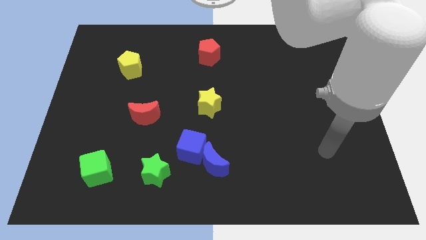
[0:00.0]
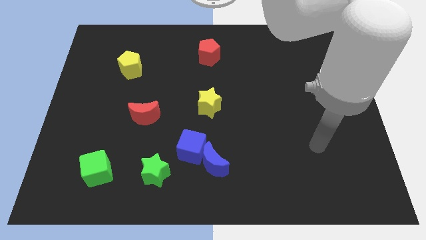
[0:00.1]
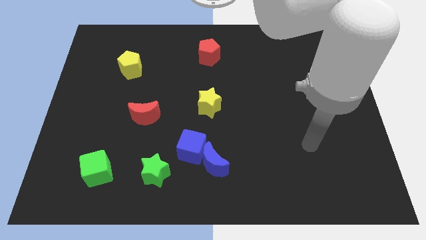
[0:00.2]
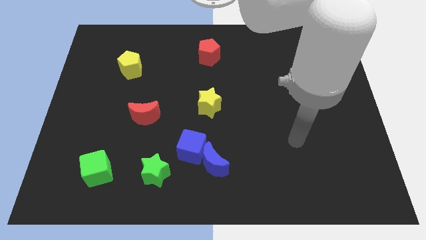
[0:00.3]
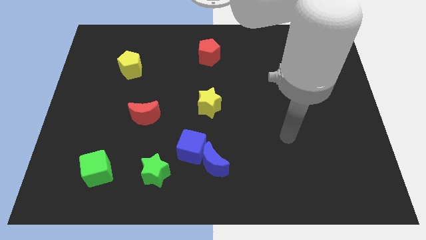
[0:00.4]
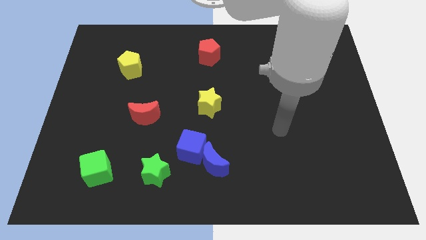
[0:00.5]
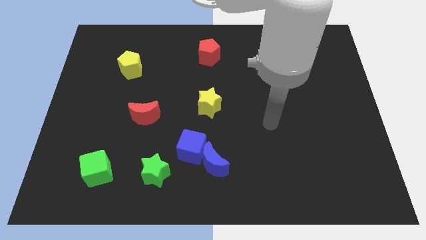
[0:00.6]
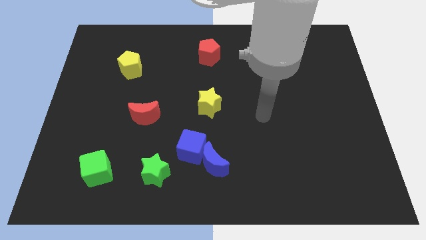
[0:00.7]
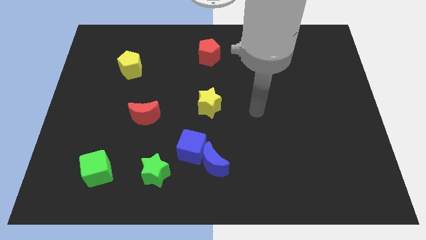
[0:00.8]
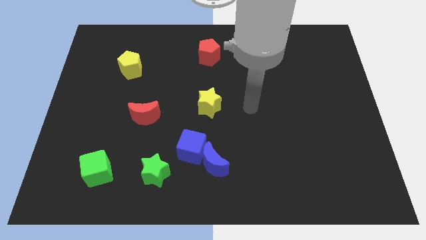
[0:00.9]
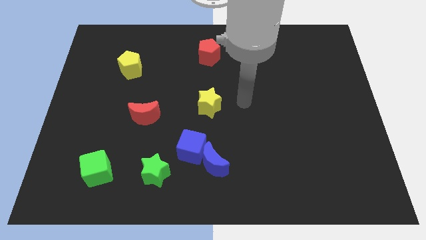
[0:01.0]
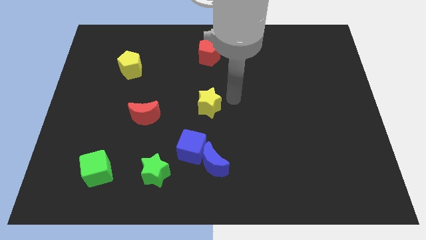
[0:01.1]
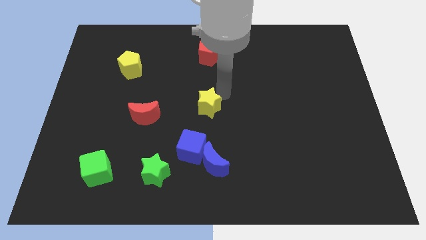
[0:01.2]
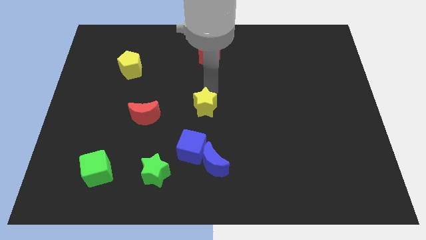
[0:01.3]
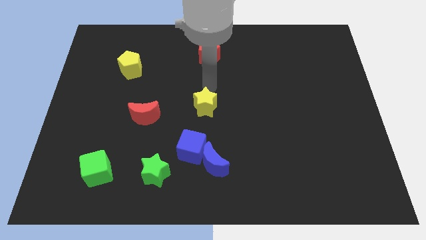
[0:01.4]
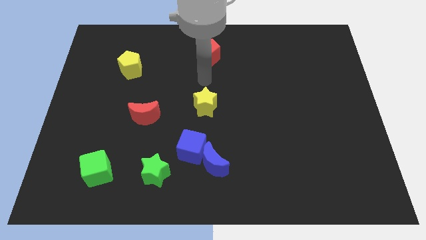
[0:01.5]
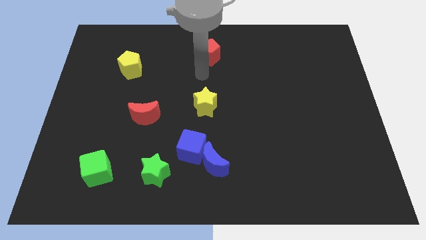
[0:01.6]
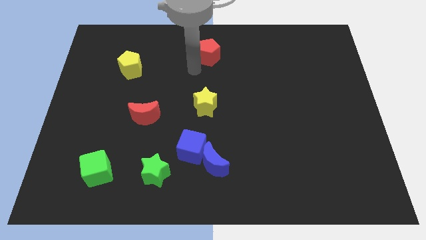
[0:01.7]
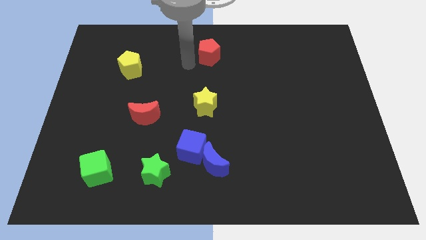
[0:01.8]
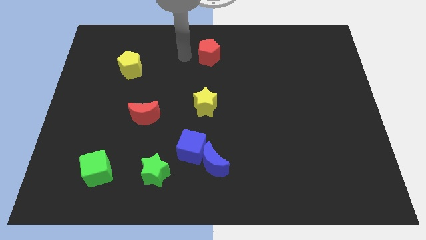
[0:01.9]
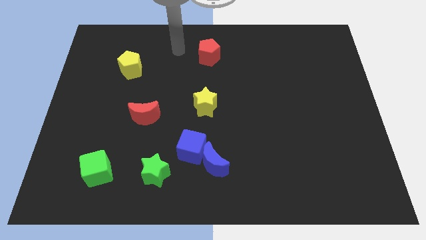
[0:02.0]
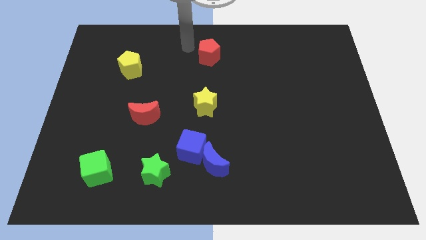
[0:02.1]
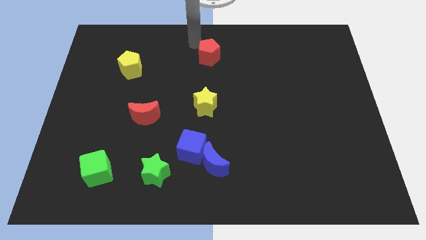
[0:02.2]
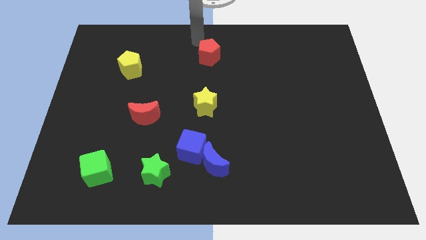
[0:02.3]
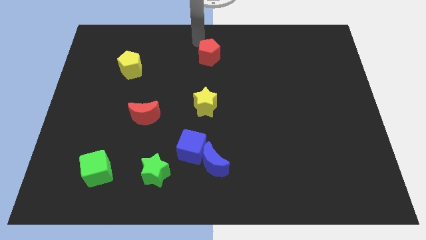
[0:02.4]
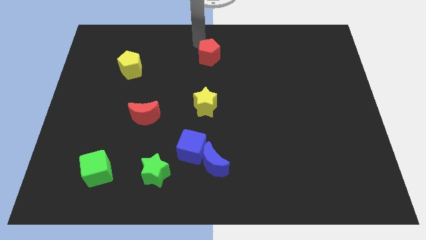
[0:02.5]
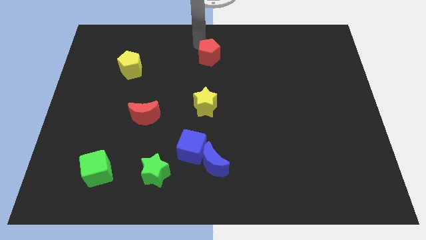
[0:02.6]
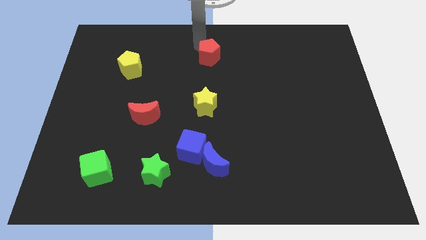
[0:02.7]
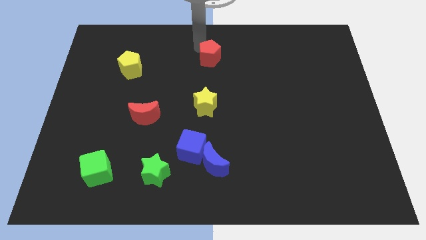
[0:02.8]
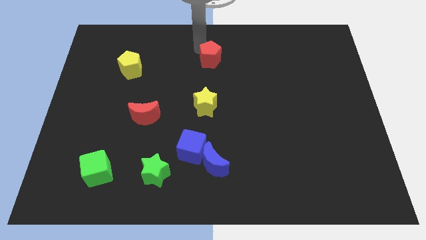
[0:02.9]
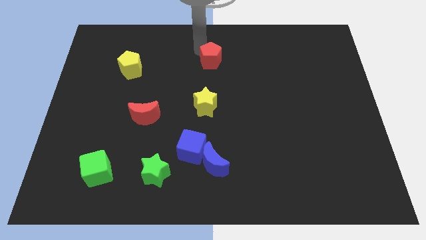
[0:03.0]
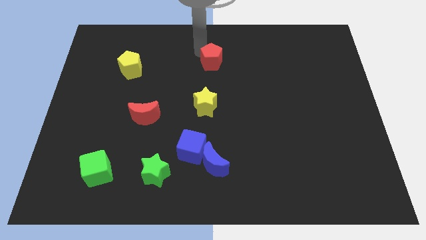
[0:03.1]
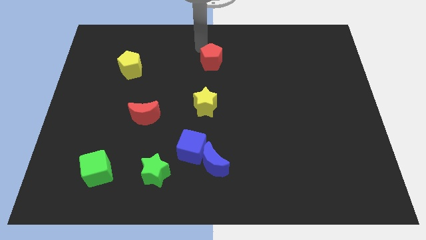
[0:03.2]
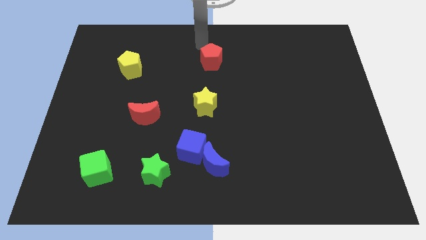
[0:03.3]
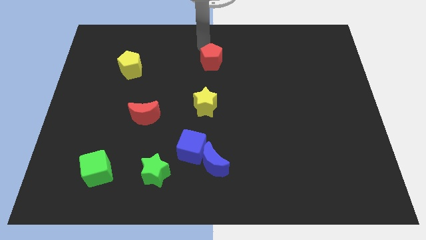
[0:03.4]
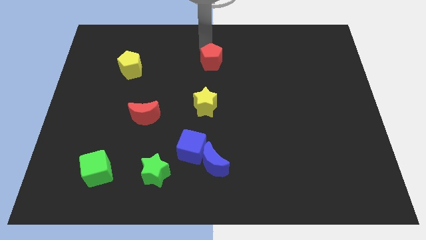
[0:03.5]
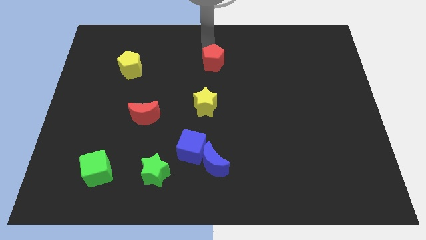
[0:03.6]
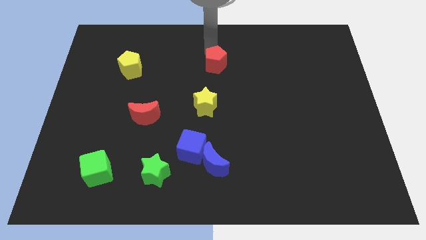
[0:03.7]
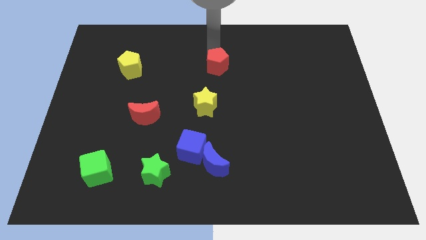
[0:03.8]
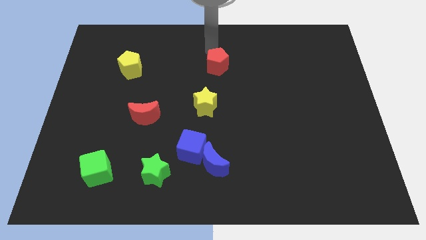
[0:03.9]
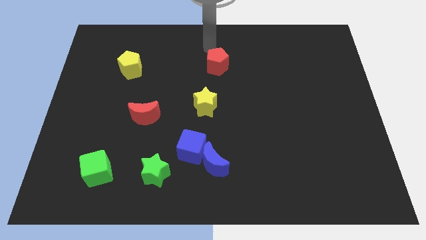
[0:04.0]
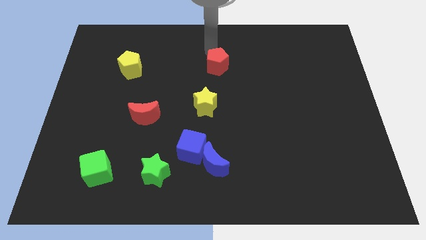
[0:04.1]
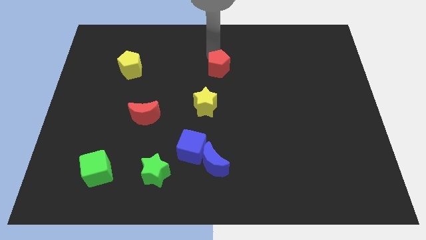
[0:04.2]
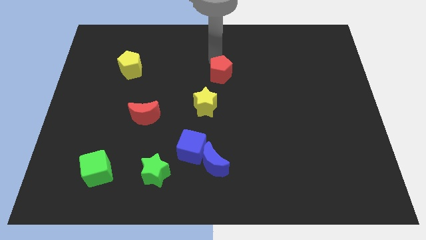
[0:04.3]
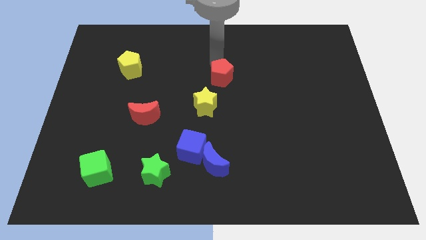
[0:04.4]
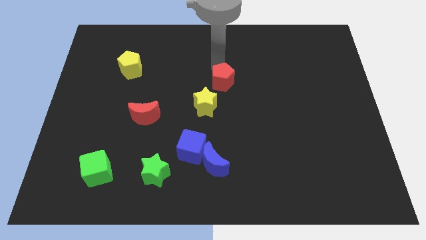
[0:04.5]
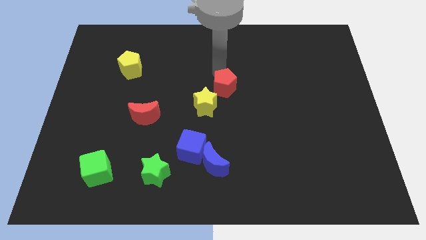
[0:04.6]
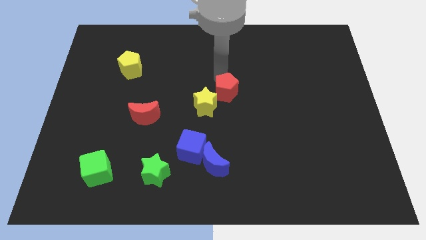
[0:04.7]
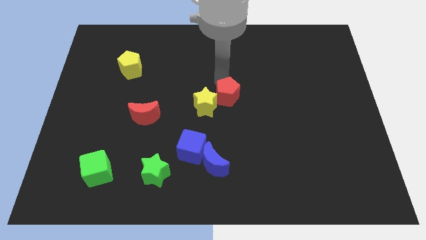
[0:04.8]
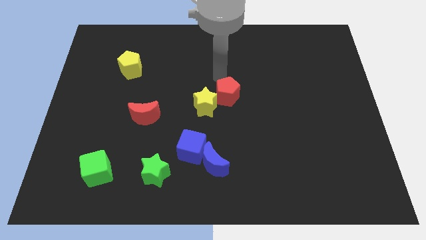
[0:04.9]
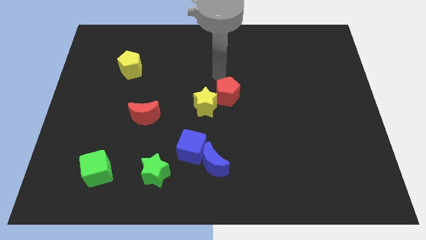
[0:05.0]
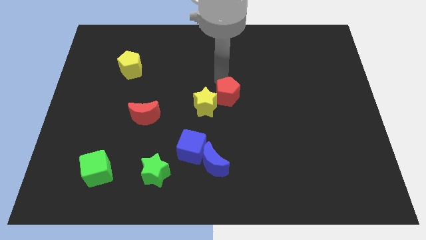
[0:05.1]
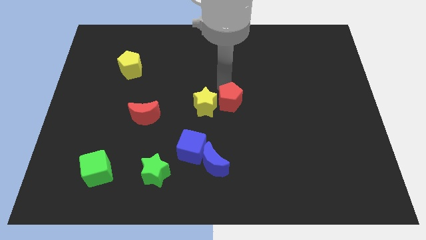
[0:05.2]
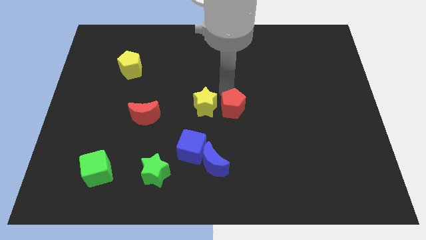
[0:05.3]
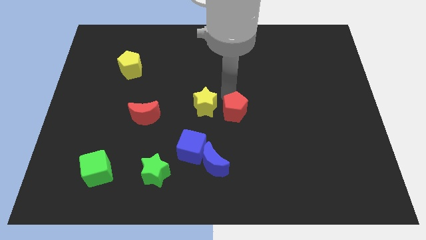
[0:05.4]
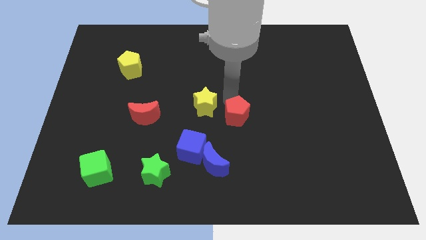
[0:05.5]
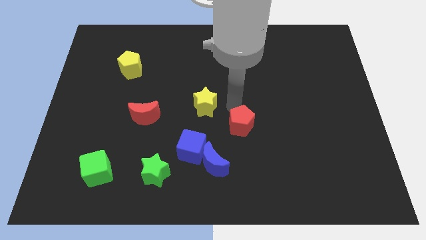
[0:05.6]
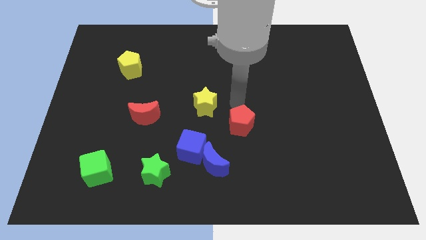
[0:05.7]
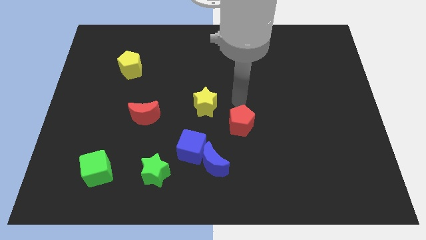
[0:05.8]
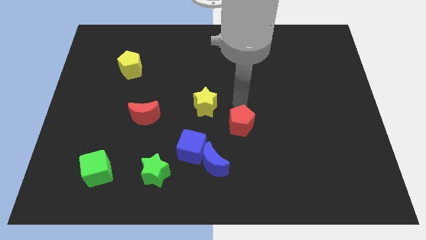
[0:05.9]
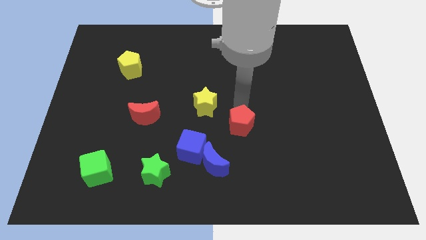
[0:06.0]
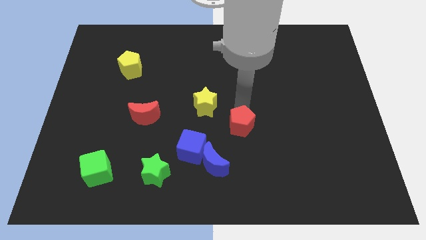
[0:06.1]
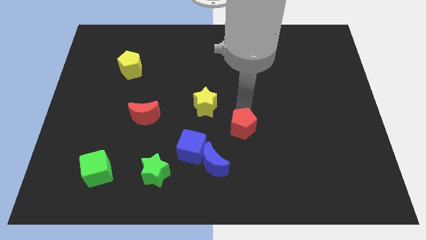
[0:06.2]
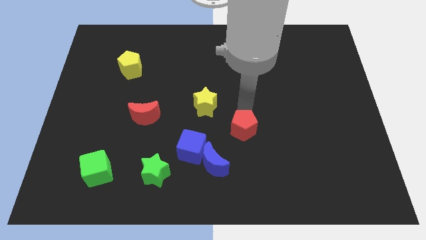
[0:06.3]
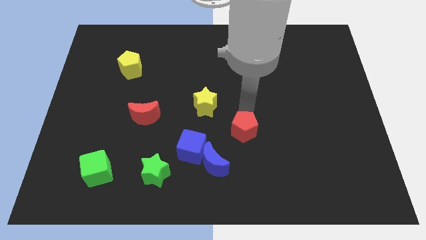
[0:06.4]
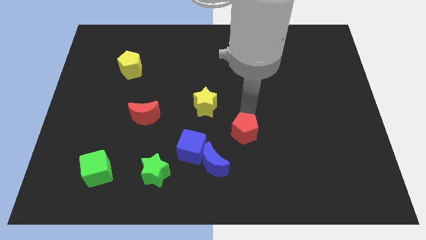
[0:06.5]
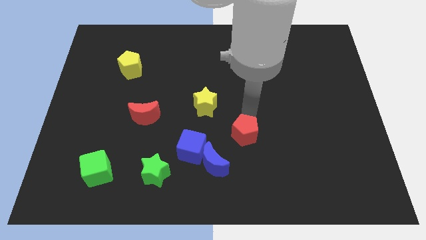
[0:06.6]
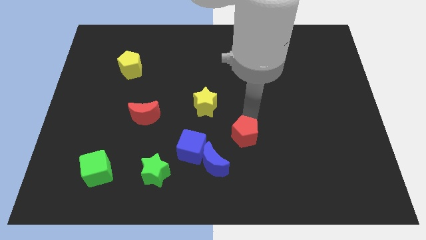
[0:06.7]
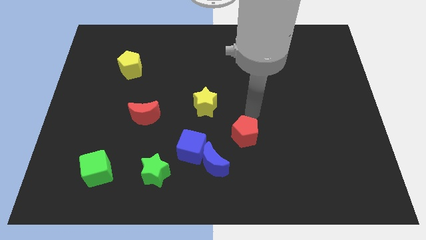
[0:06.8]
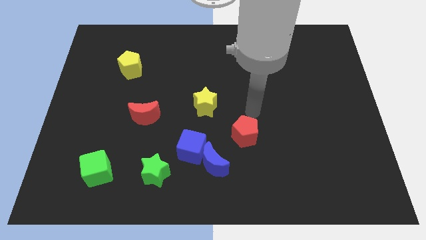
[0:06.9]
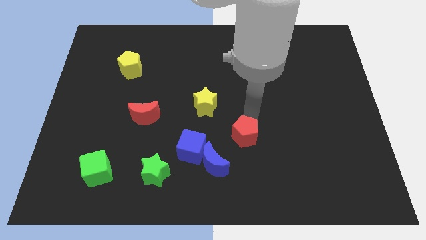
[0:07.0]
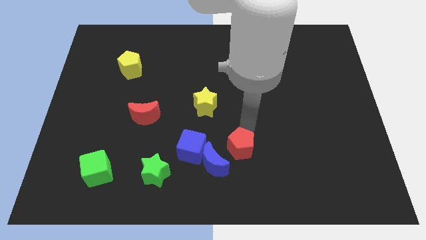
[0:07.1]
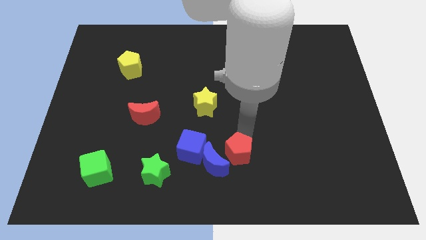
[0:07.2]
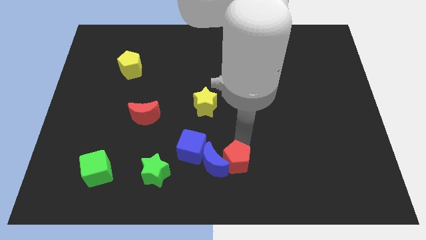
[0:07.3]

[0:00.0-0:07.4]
put the red pentagon to the bottom
